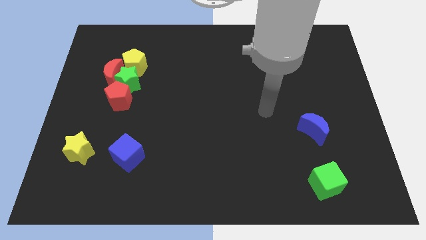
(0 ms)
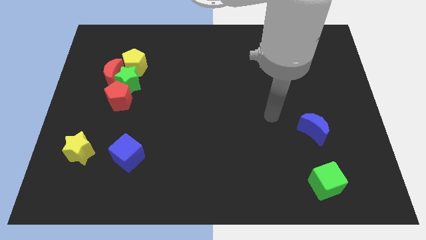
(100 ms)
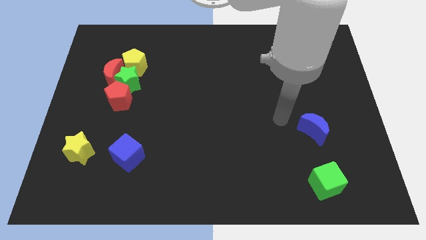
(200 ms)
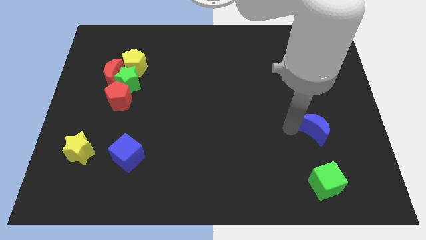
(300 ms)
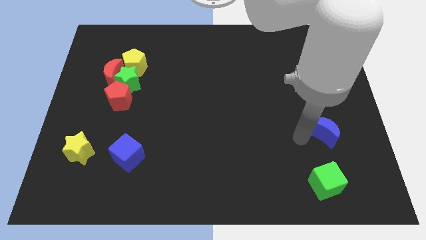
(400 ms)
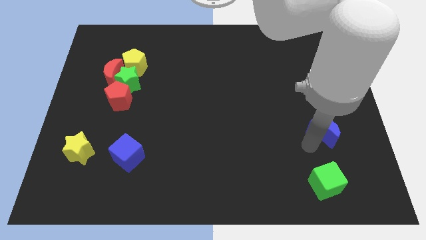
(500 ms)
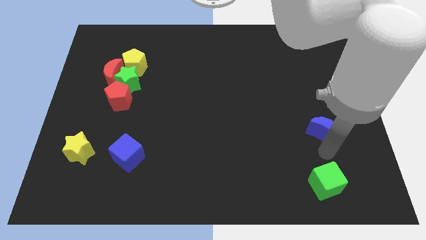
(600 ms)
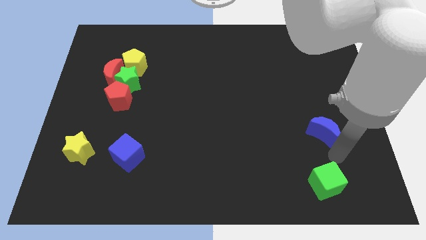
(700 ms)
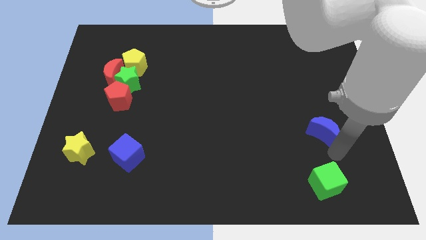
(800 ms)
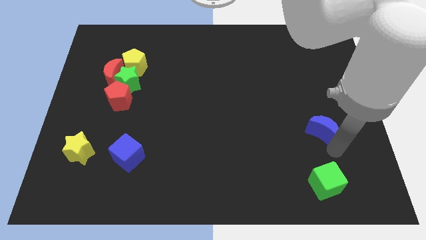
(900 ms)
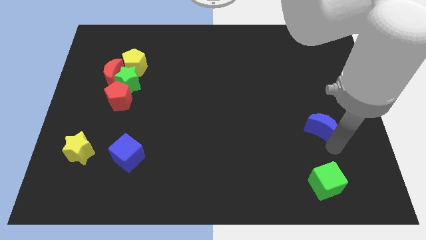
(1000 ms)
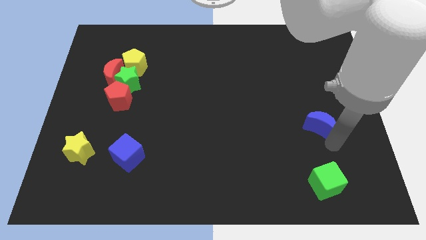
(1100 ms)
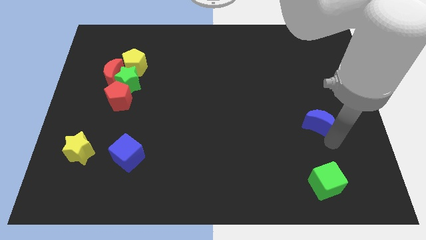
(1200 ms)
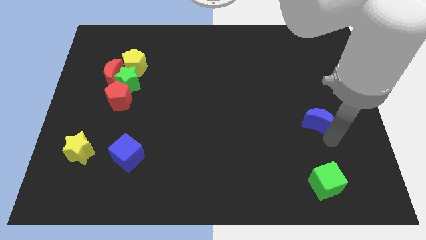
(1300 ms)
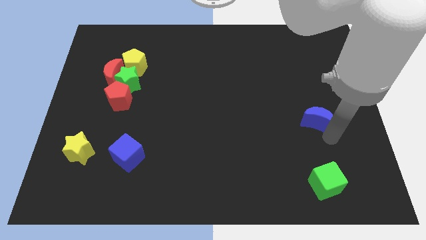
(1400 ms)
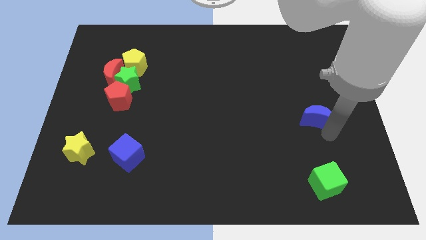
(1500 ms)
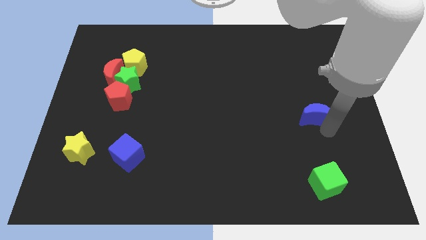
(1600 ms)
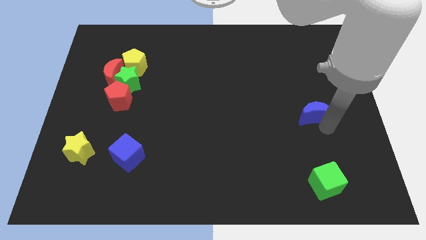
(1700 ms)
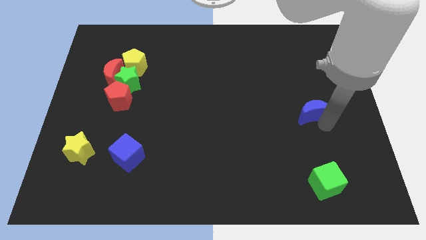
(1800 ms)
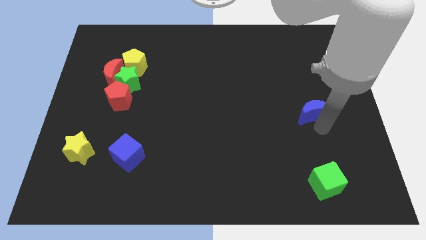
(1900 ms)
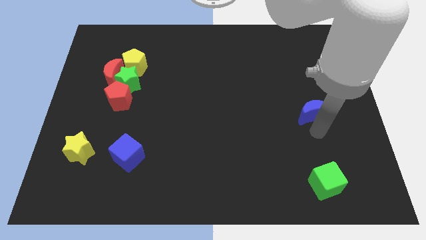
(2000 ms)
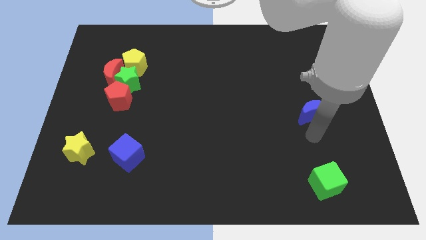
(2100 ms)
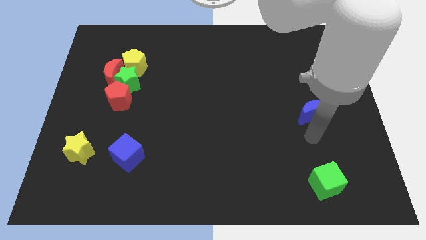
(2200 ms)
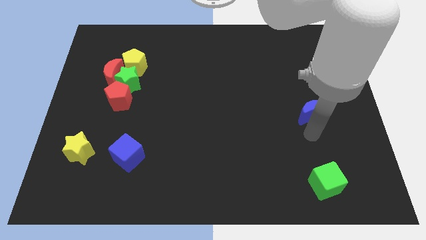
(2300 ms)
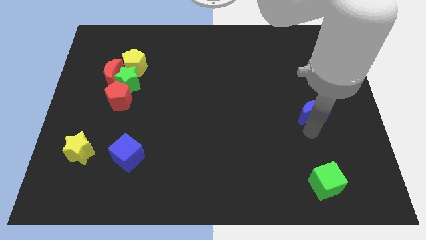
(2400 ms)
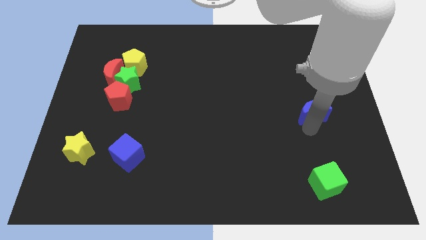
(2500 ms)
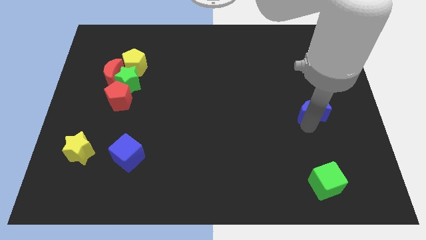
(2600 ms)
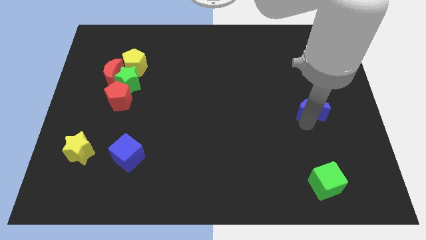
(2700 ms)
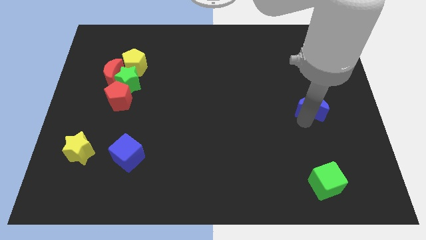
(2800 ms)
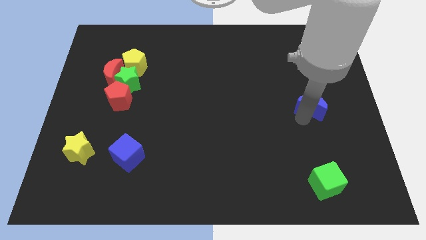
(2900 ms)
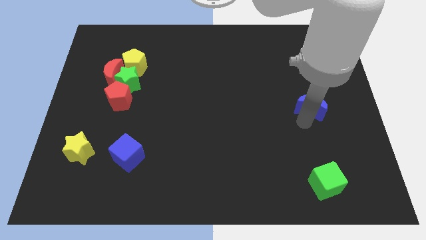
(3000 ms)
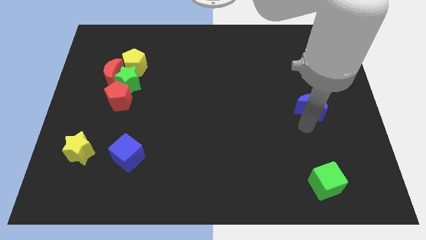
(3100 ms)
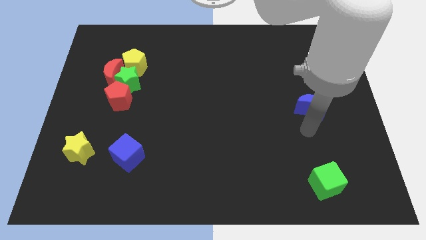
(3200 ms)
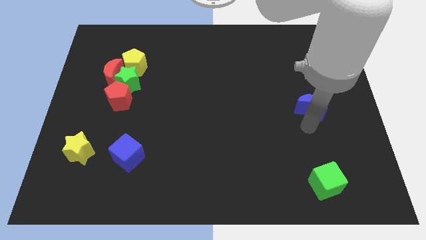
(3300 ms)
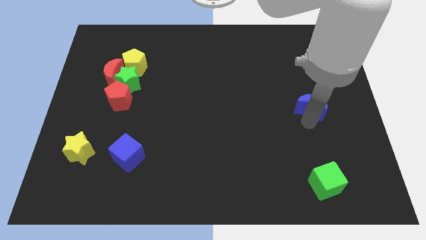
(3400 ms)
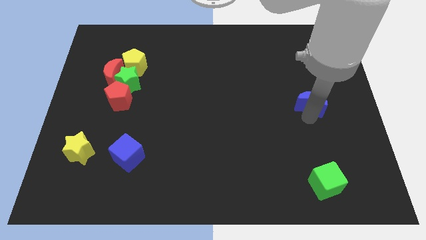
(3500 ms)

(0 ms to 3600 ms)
slide the blue moon up a bit

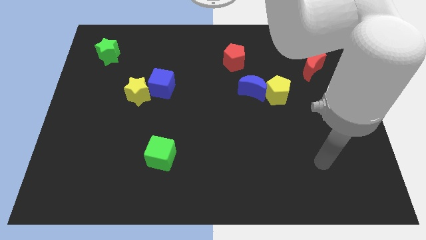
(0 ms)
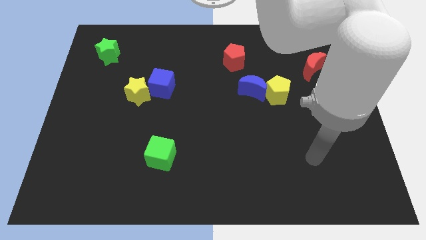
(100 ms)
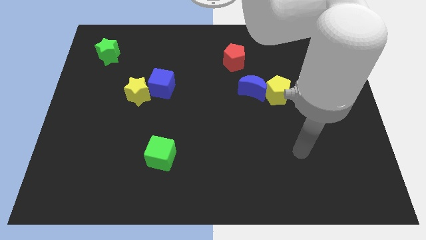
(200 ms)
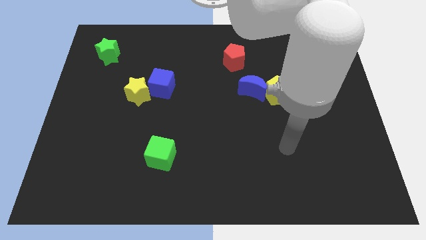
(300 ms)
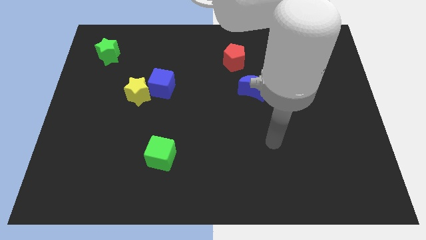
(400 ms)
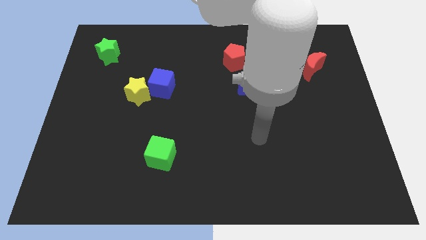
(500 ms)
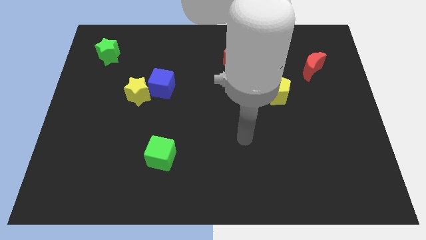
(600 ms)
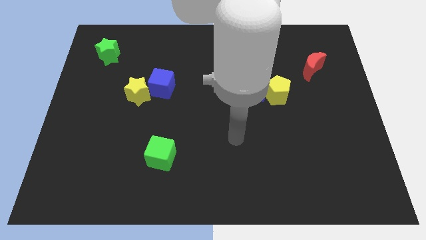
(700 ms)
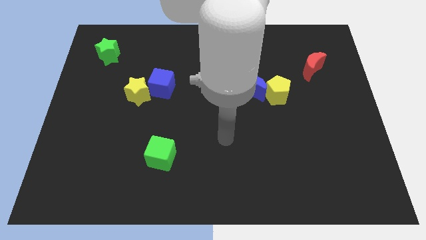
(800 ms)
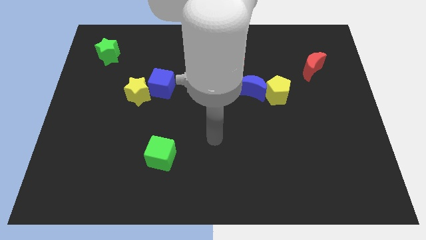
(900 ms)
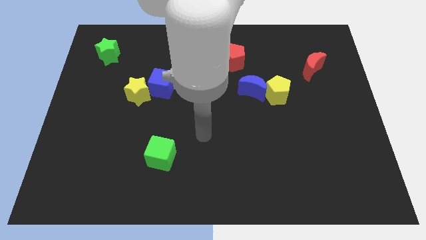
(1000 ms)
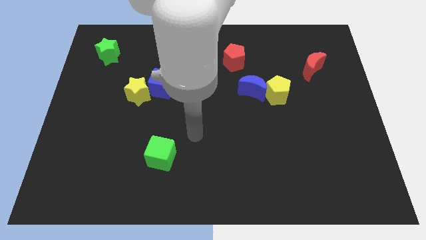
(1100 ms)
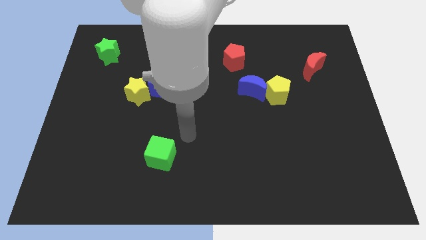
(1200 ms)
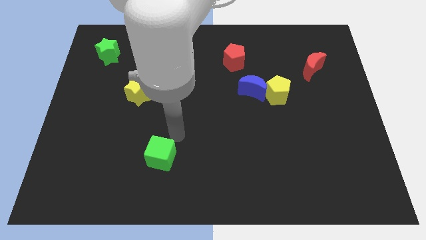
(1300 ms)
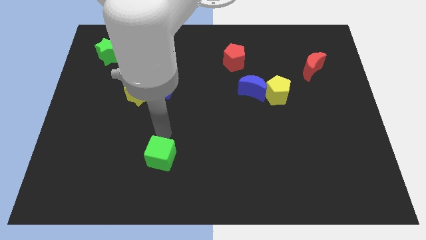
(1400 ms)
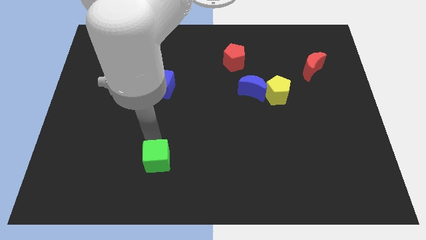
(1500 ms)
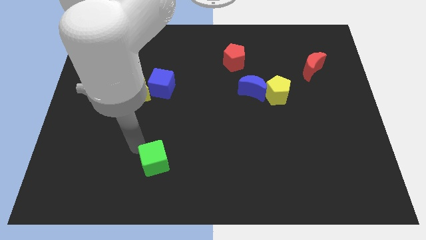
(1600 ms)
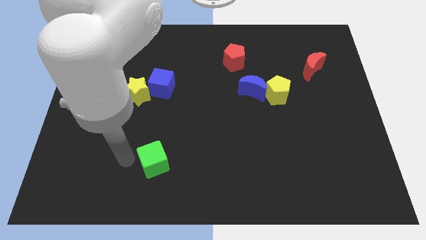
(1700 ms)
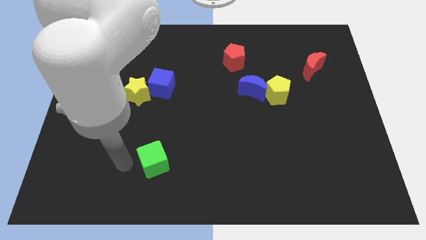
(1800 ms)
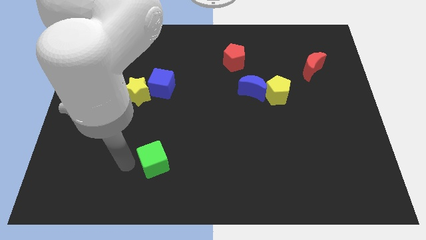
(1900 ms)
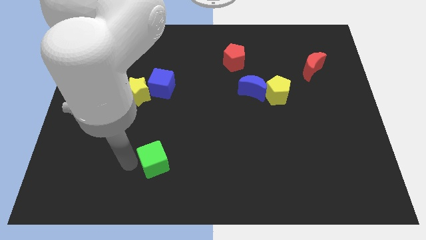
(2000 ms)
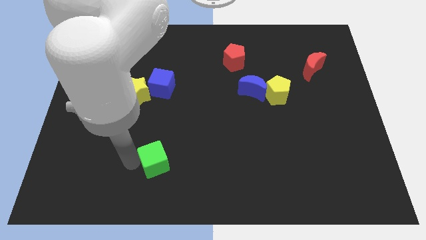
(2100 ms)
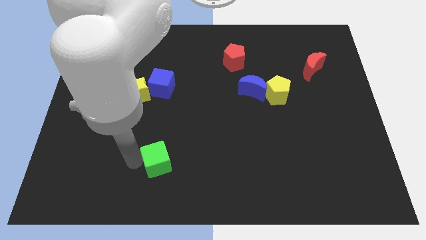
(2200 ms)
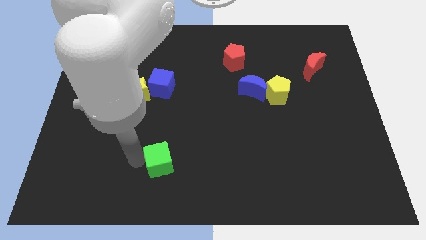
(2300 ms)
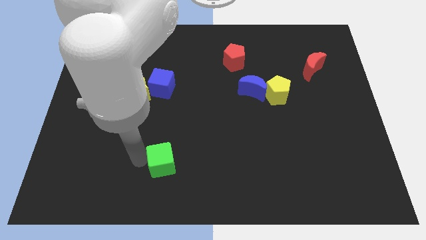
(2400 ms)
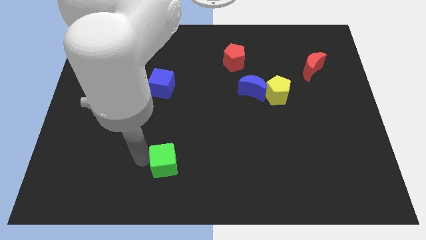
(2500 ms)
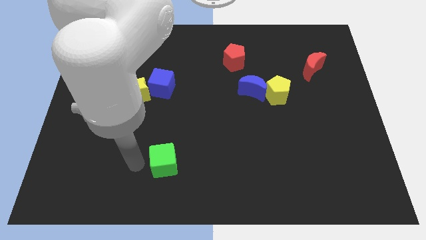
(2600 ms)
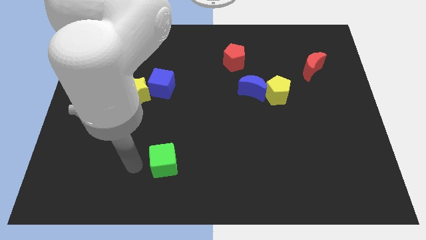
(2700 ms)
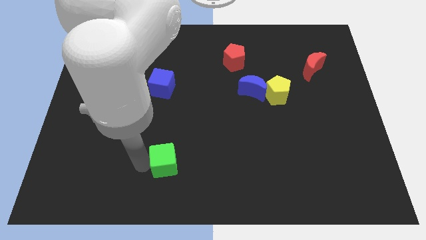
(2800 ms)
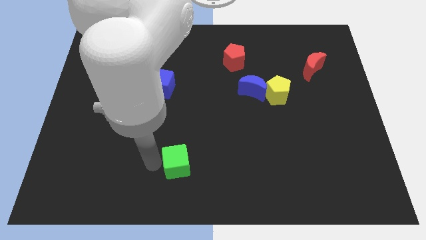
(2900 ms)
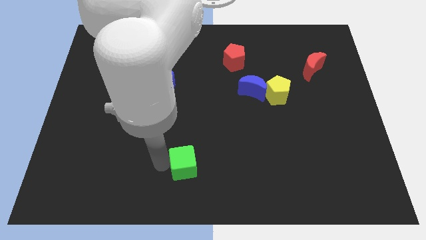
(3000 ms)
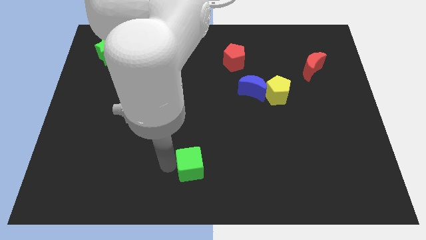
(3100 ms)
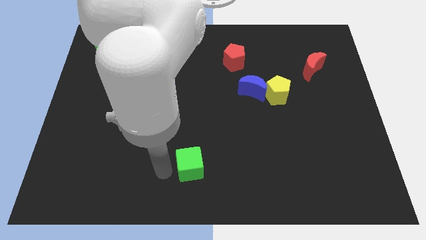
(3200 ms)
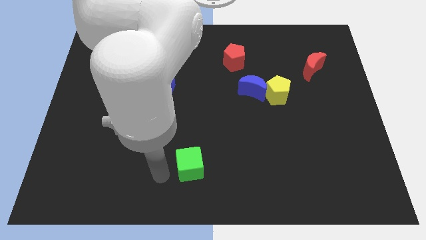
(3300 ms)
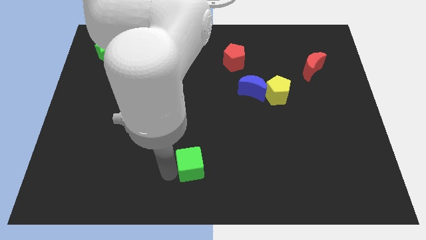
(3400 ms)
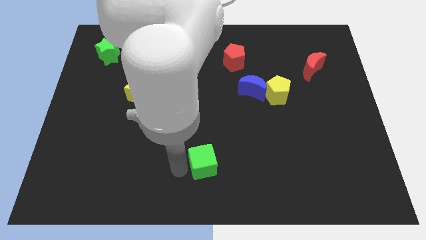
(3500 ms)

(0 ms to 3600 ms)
push the green cube a bit right

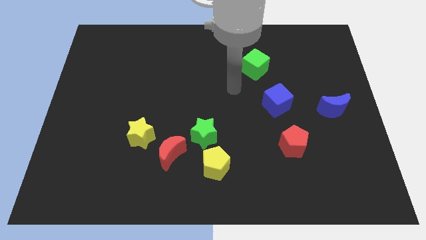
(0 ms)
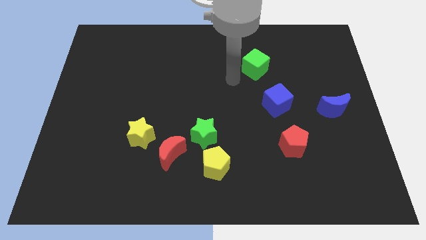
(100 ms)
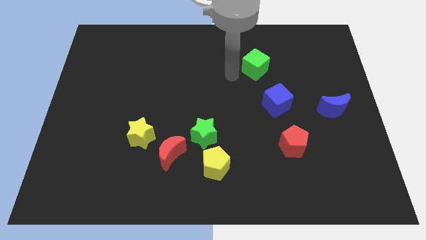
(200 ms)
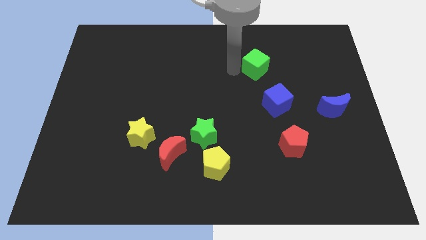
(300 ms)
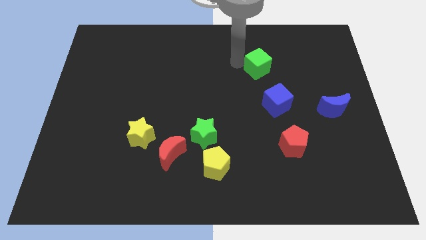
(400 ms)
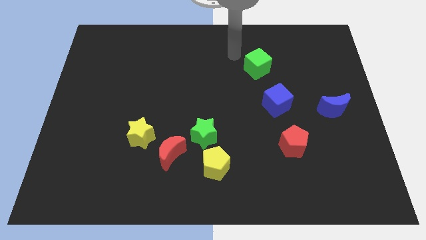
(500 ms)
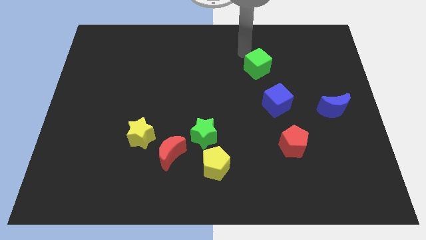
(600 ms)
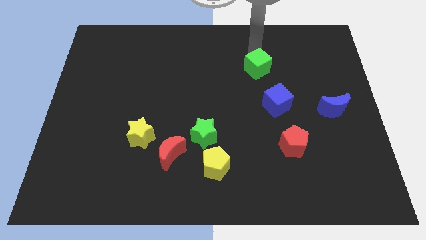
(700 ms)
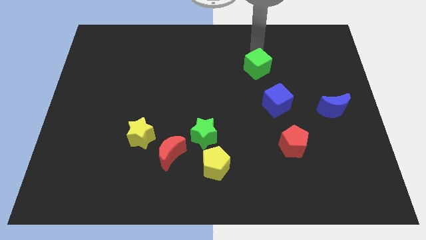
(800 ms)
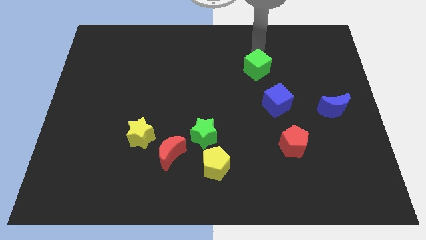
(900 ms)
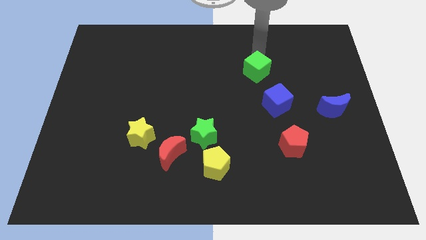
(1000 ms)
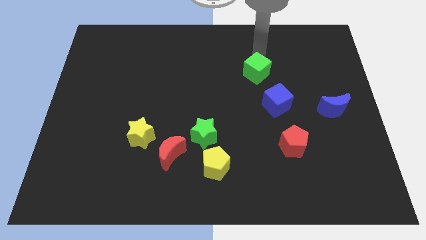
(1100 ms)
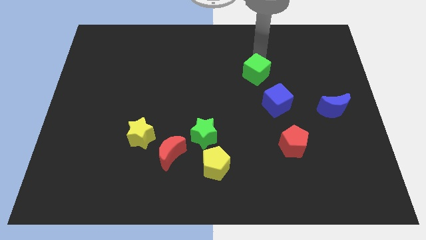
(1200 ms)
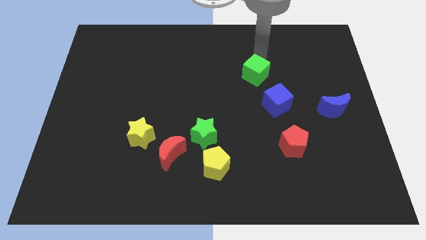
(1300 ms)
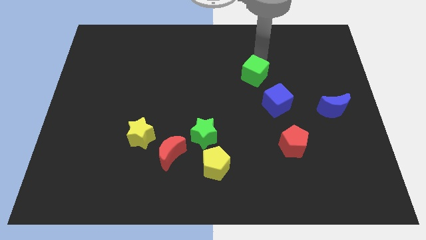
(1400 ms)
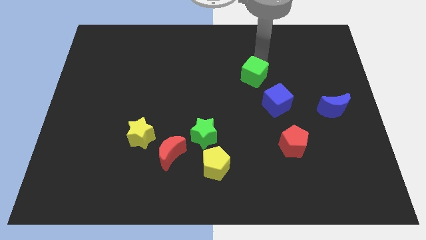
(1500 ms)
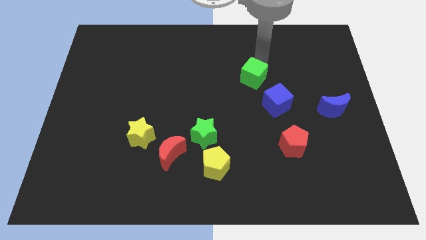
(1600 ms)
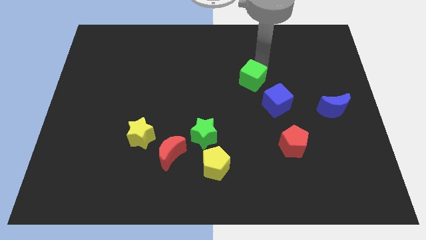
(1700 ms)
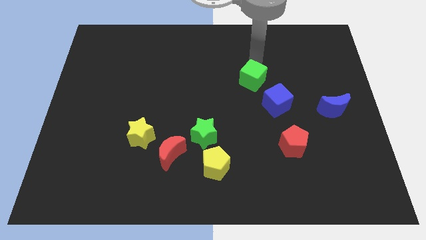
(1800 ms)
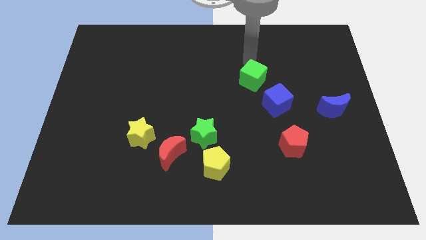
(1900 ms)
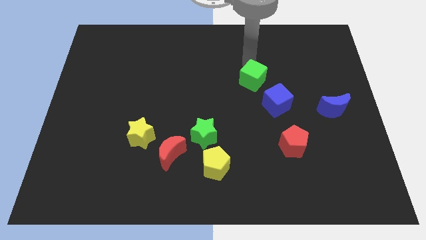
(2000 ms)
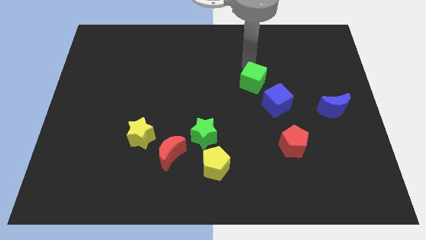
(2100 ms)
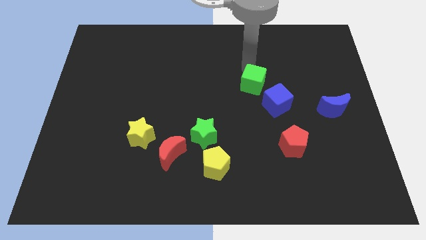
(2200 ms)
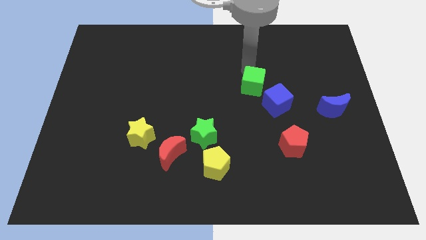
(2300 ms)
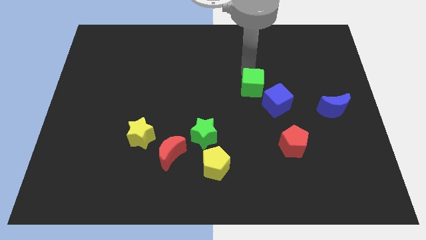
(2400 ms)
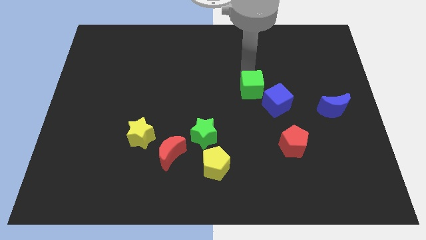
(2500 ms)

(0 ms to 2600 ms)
slightly move the green cube down
